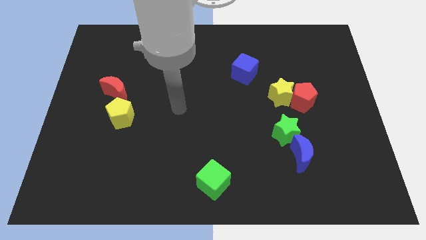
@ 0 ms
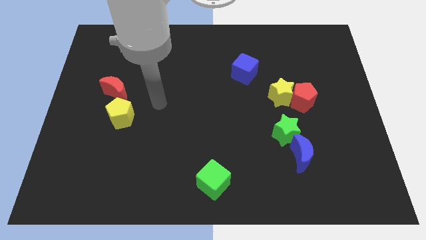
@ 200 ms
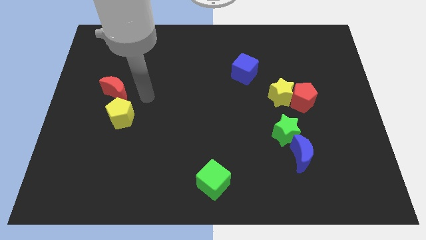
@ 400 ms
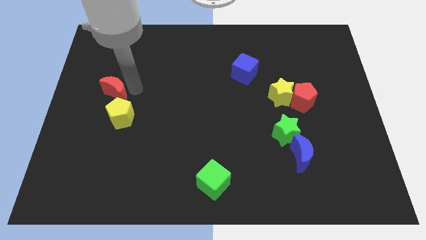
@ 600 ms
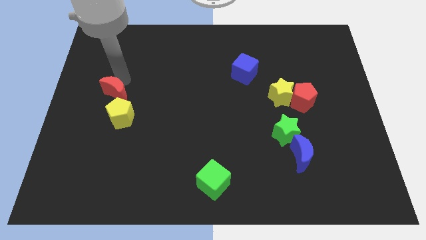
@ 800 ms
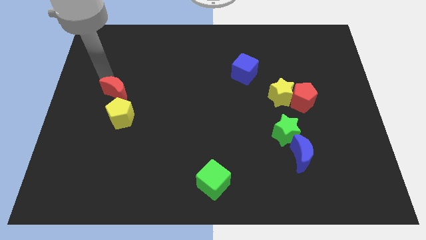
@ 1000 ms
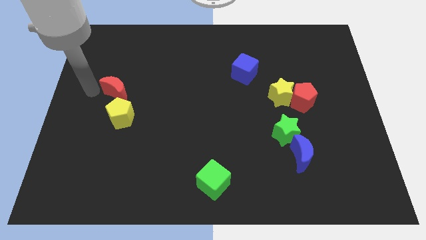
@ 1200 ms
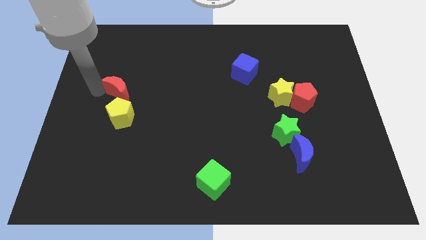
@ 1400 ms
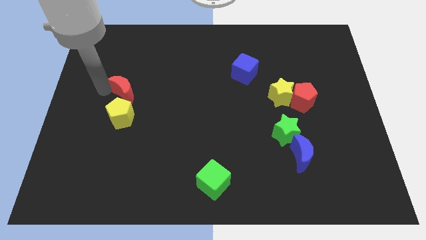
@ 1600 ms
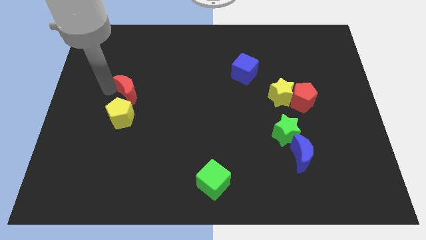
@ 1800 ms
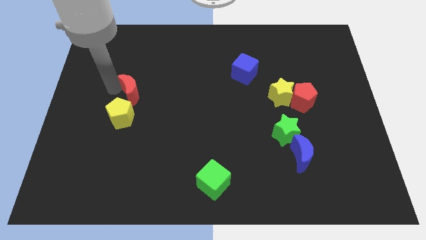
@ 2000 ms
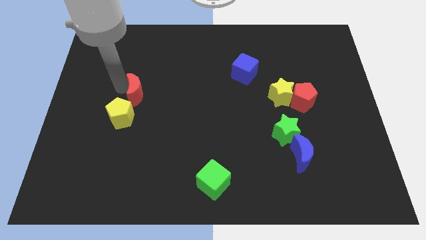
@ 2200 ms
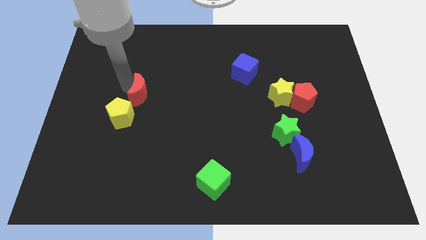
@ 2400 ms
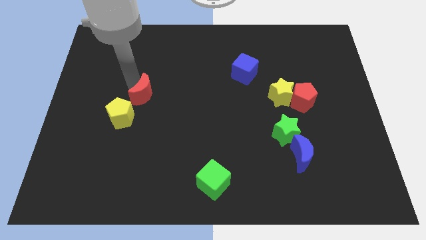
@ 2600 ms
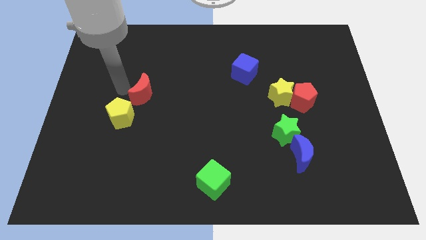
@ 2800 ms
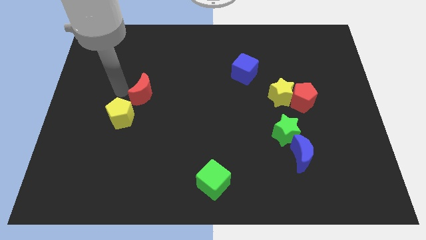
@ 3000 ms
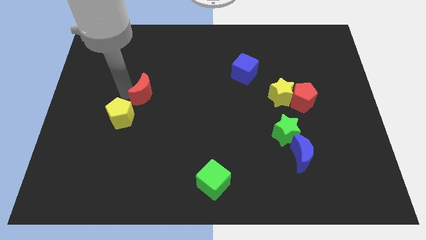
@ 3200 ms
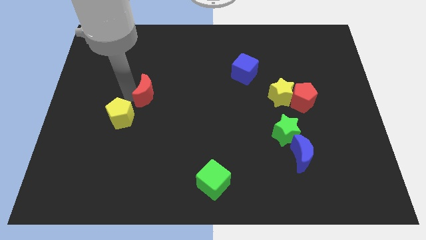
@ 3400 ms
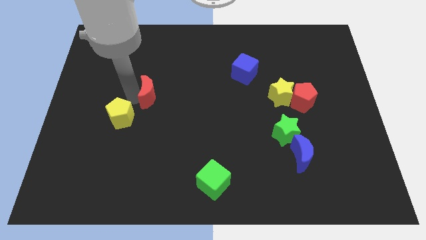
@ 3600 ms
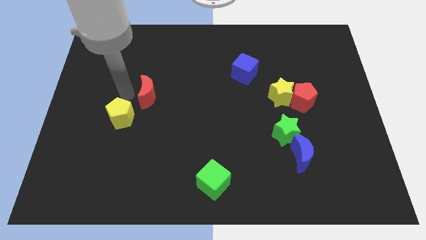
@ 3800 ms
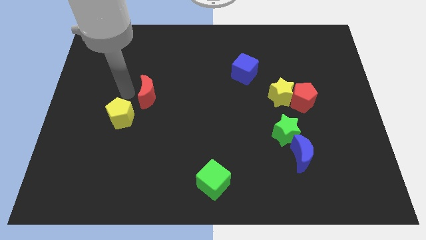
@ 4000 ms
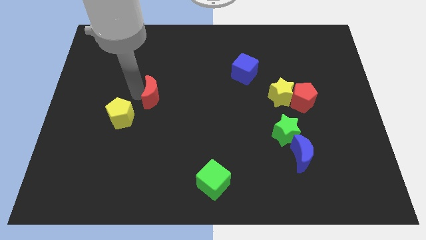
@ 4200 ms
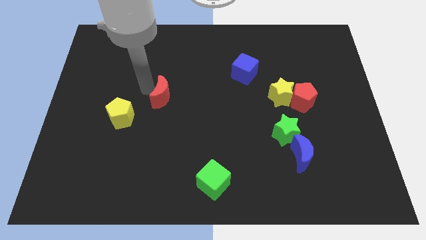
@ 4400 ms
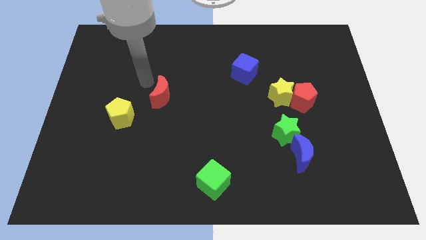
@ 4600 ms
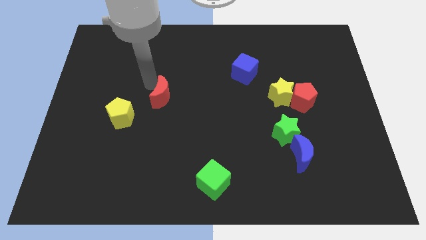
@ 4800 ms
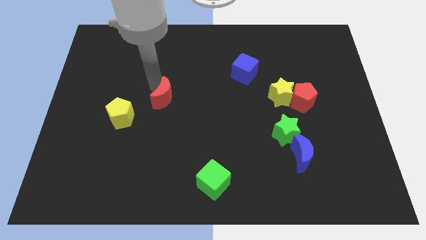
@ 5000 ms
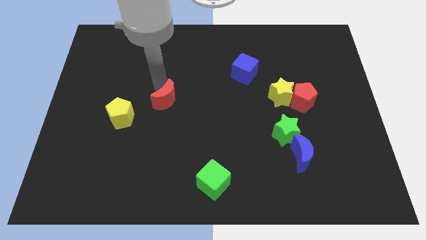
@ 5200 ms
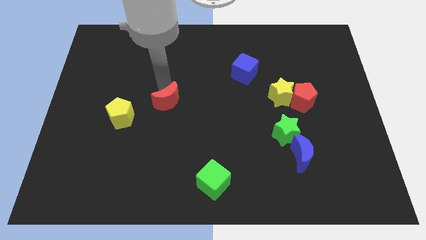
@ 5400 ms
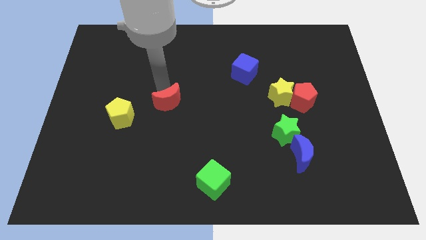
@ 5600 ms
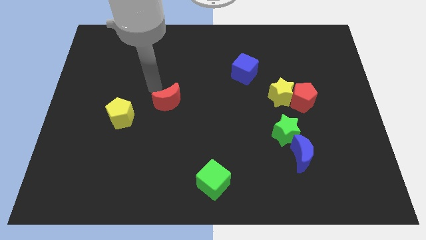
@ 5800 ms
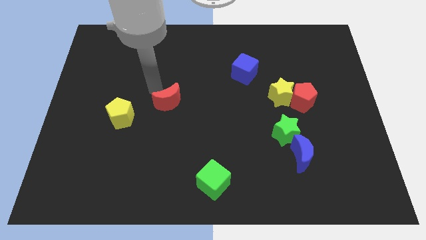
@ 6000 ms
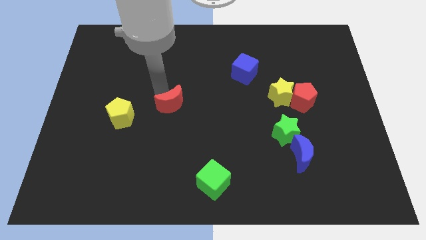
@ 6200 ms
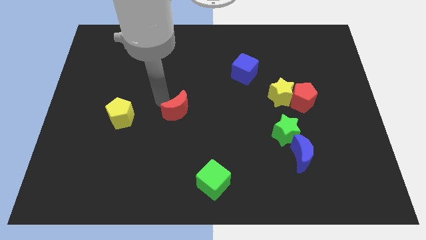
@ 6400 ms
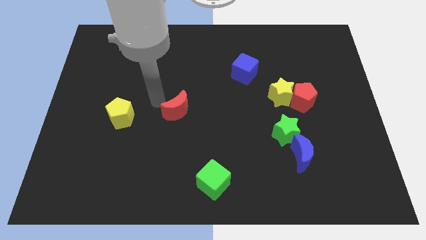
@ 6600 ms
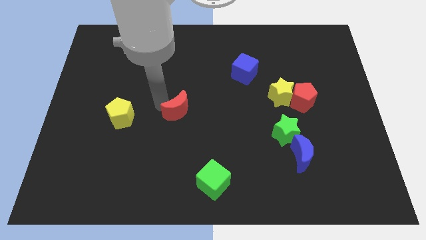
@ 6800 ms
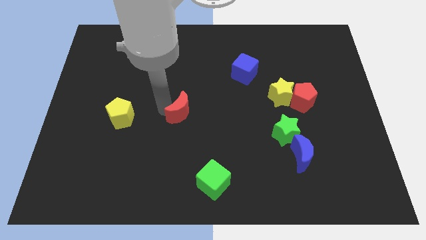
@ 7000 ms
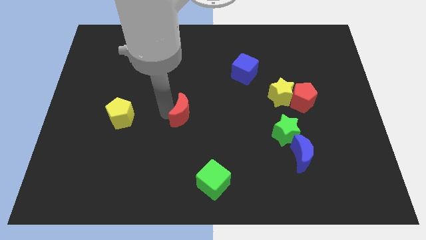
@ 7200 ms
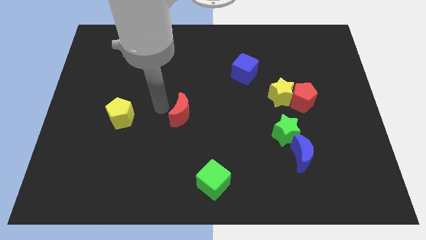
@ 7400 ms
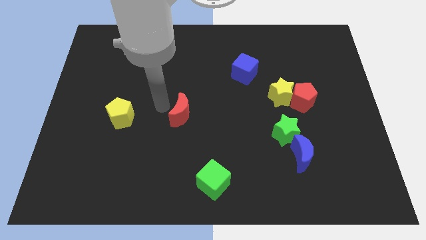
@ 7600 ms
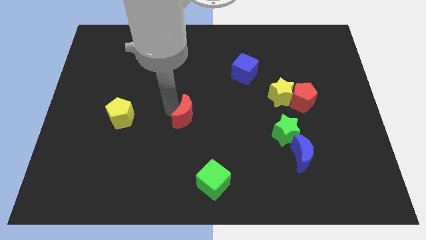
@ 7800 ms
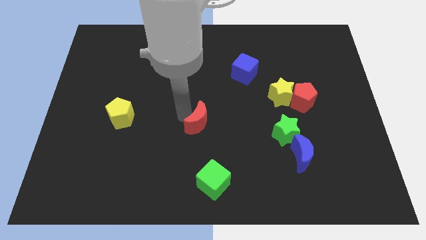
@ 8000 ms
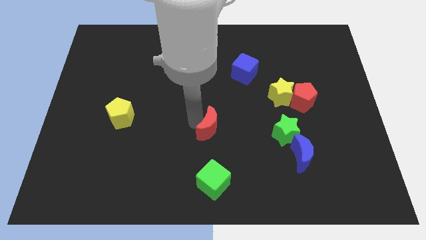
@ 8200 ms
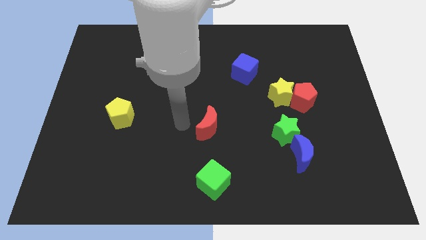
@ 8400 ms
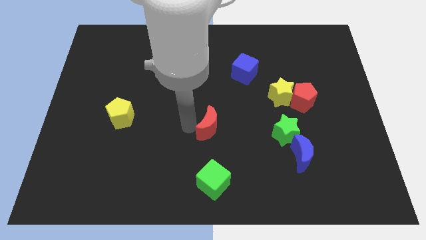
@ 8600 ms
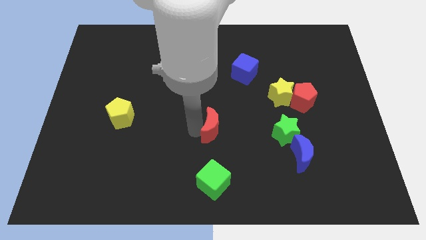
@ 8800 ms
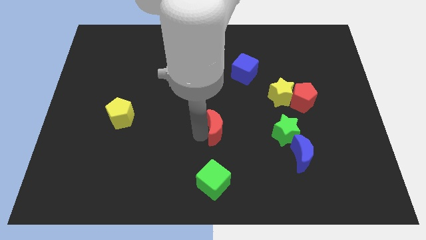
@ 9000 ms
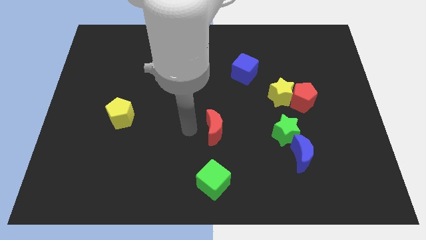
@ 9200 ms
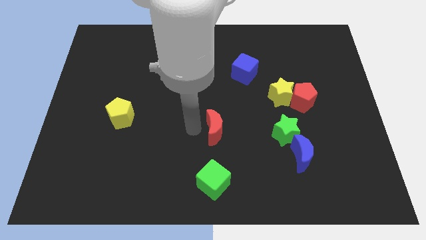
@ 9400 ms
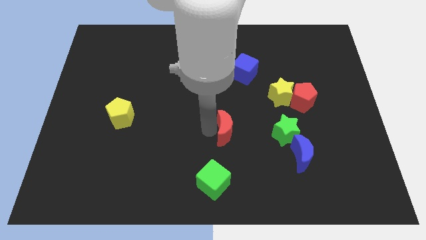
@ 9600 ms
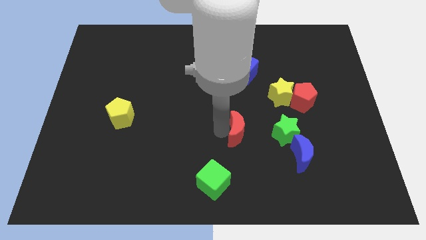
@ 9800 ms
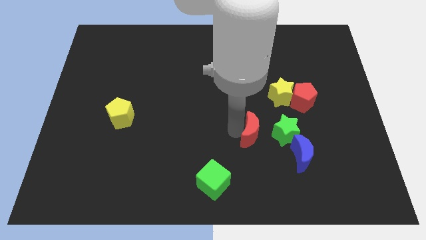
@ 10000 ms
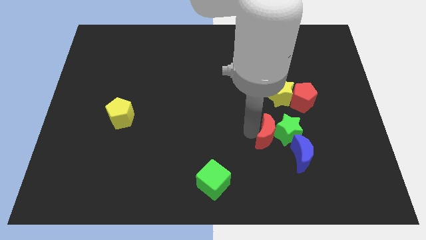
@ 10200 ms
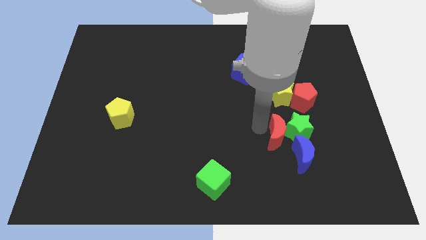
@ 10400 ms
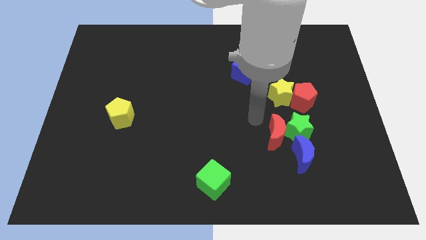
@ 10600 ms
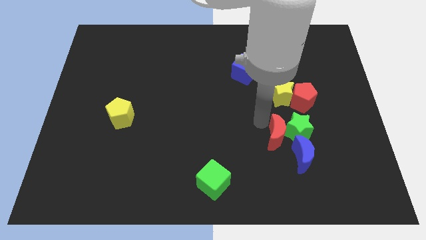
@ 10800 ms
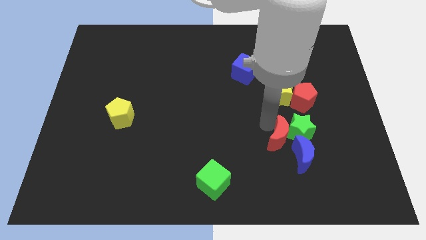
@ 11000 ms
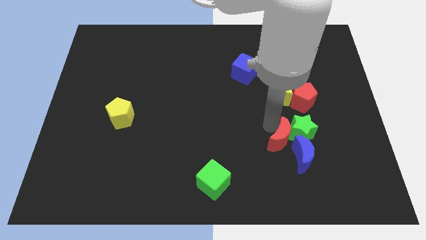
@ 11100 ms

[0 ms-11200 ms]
push the red moon towards the blue moon
